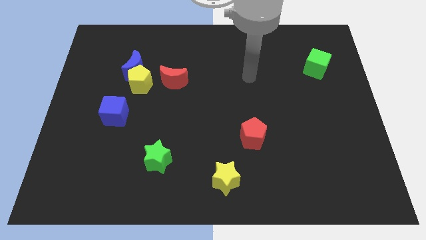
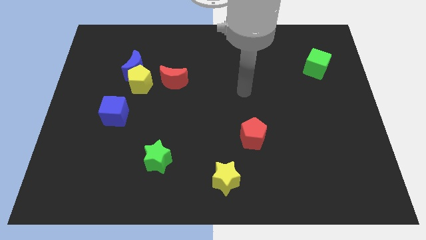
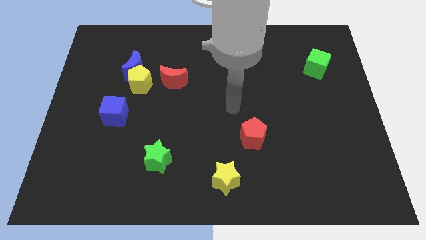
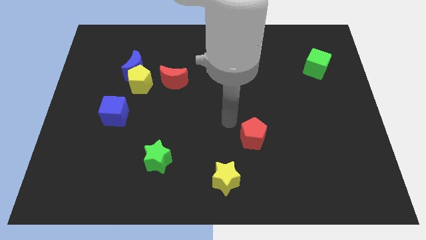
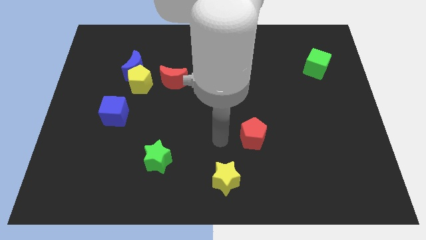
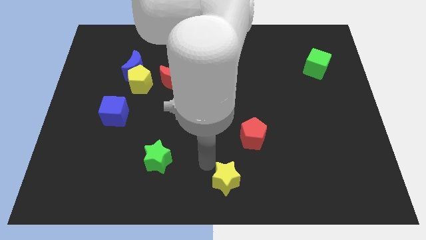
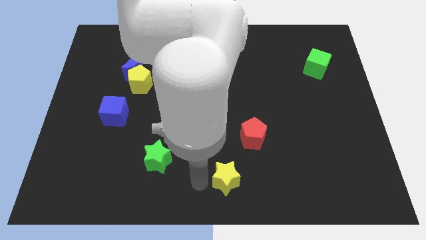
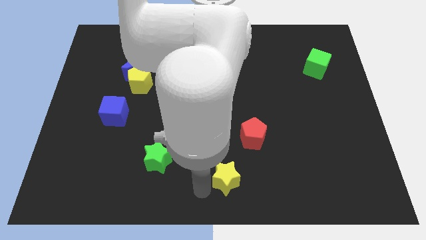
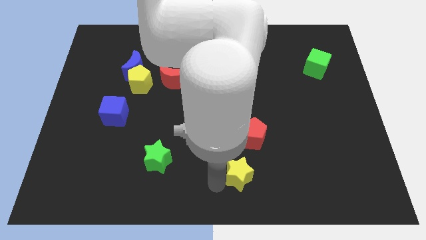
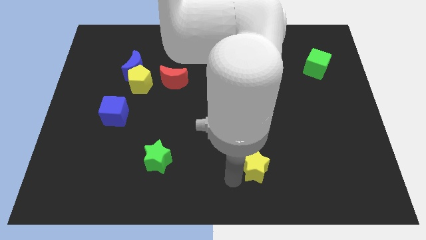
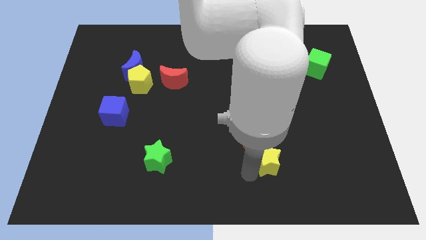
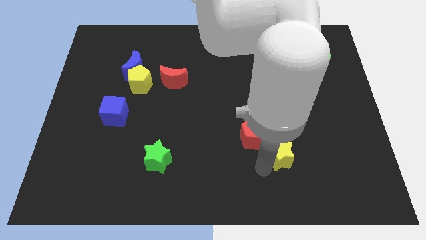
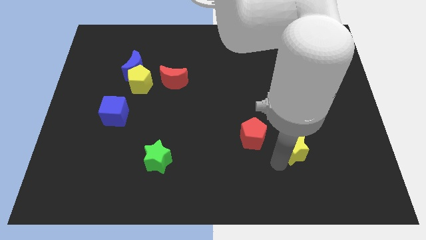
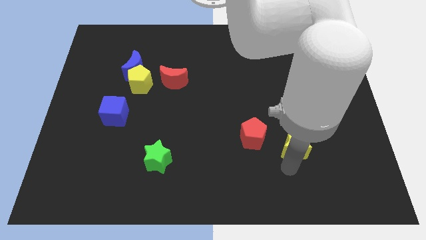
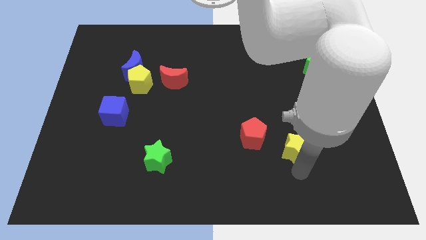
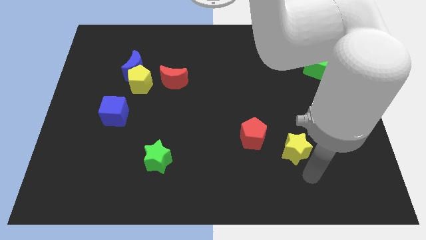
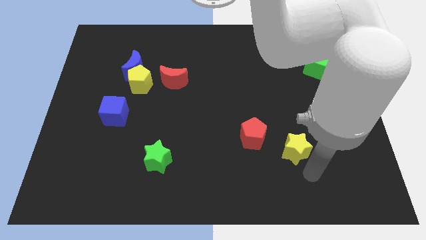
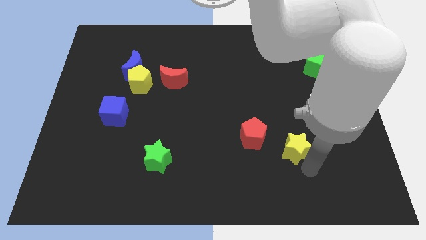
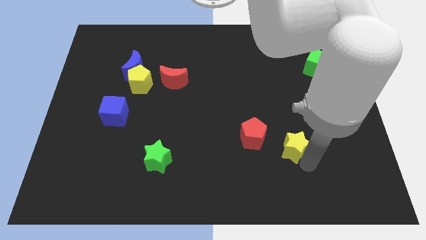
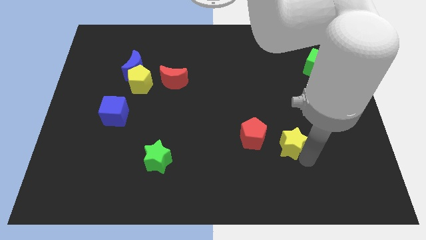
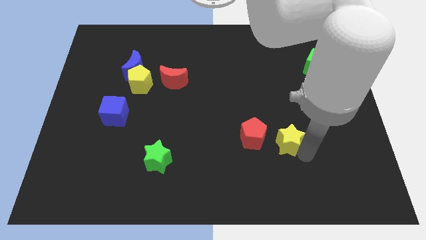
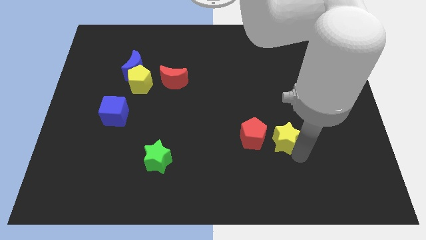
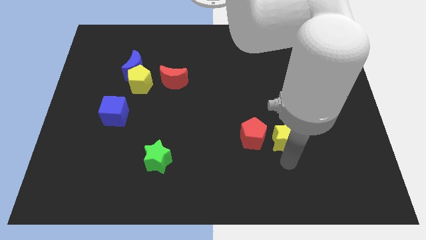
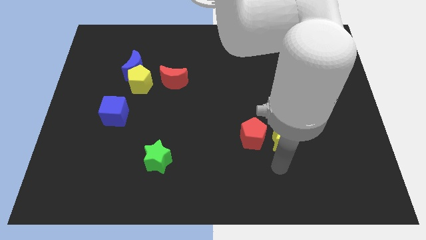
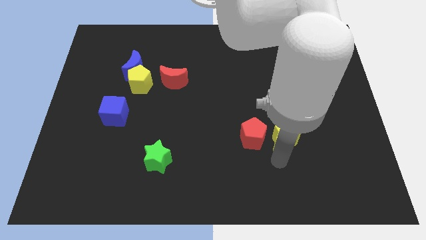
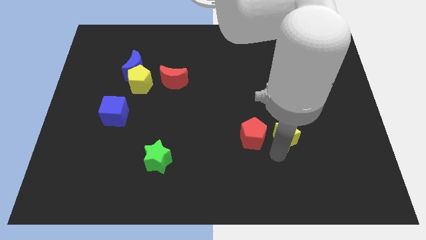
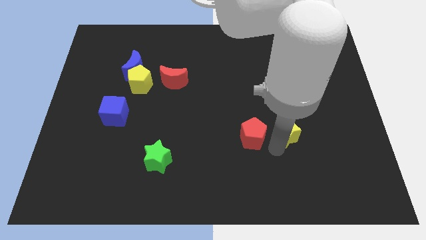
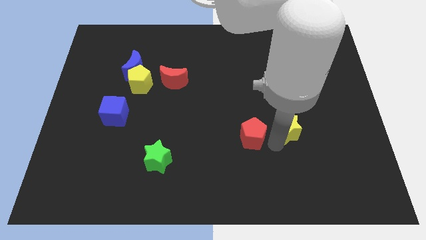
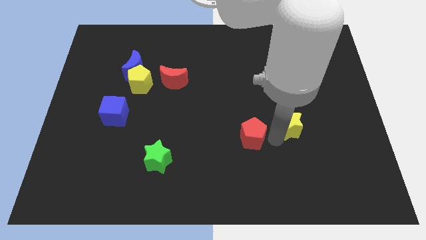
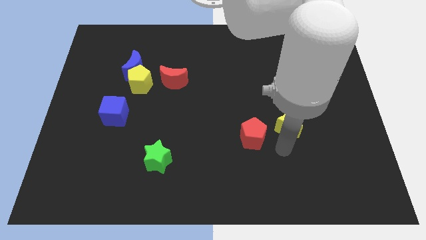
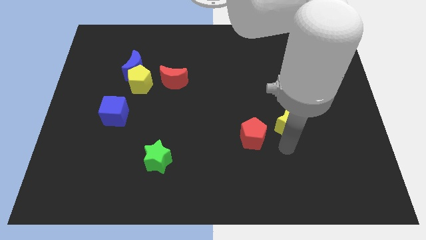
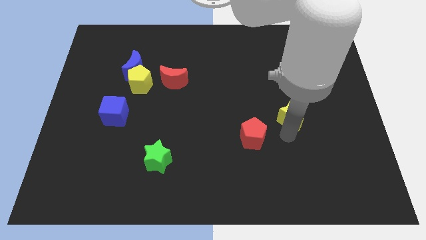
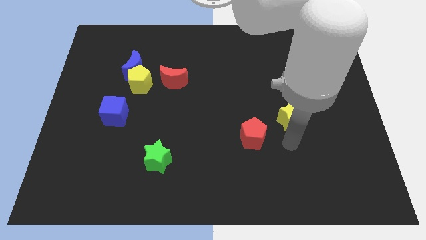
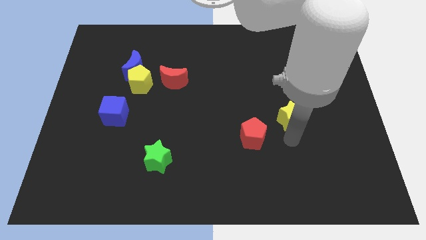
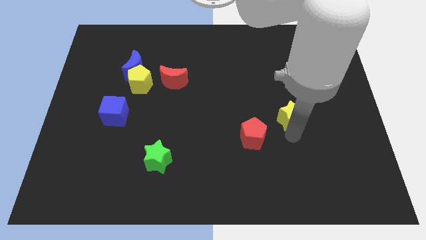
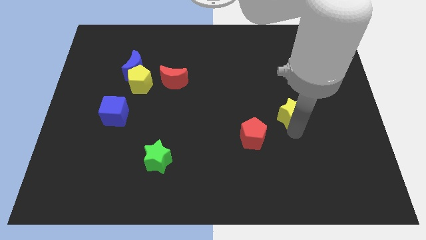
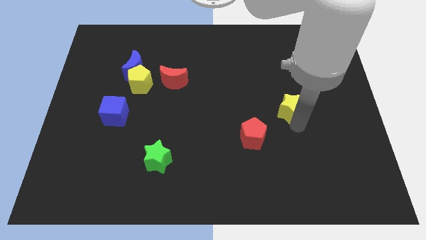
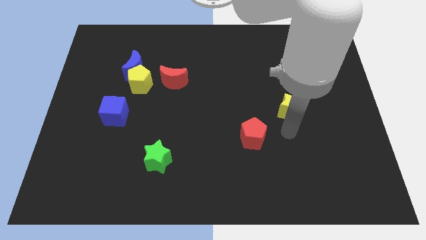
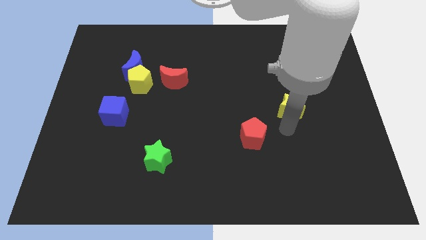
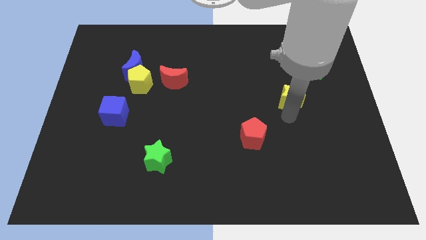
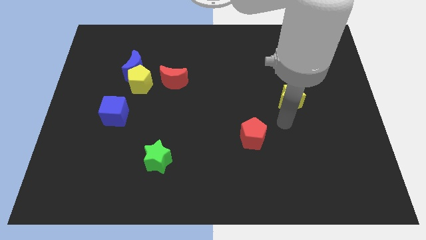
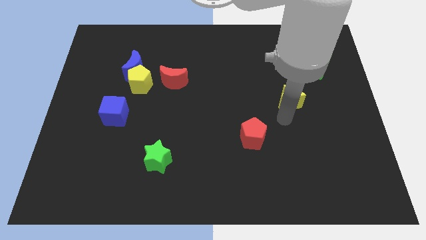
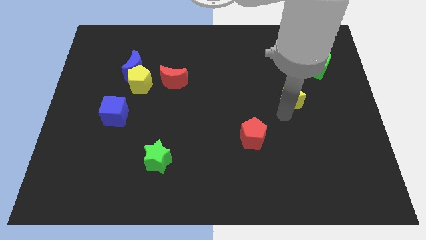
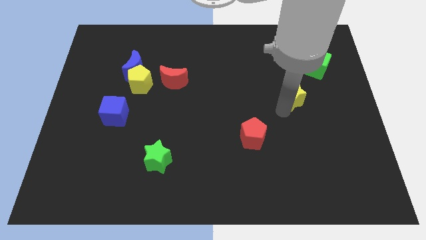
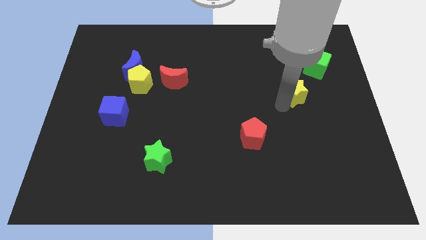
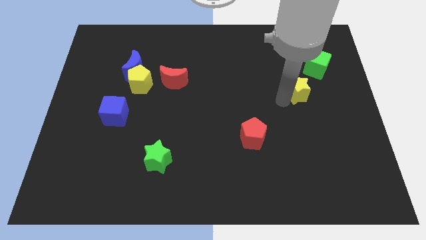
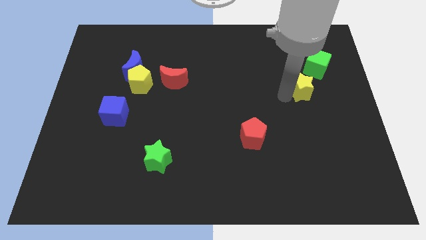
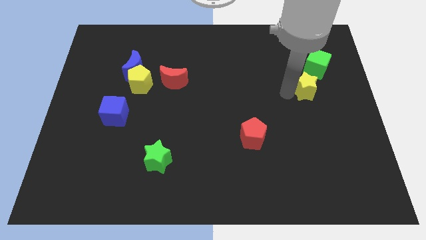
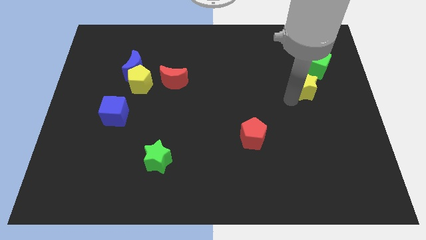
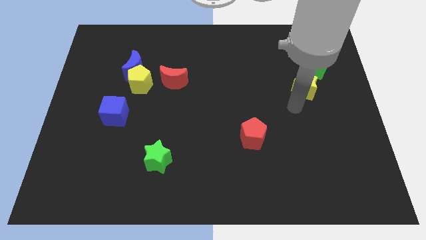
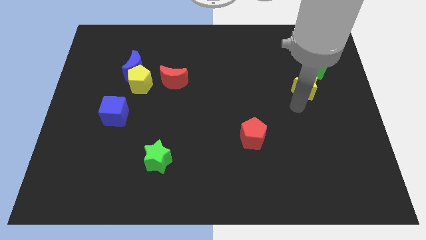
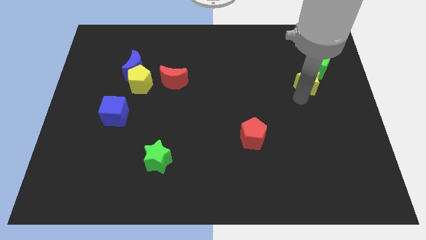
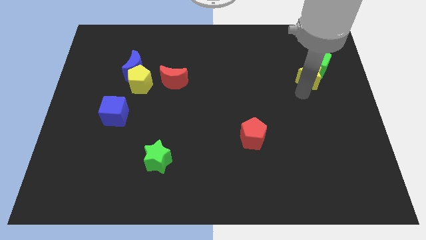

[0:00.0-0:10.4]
move the yellow star close to the green cube

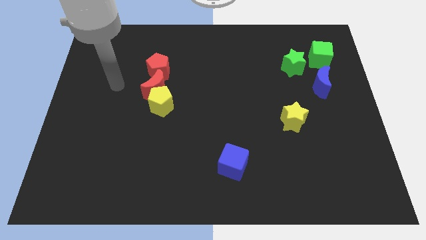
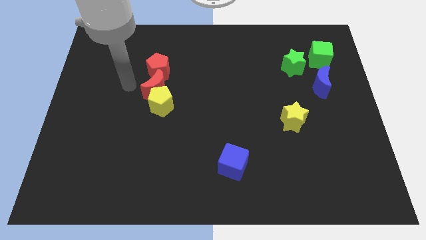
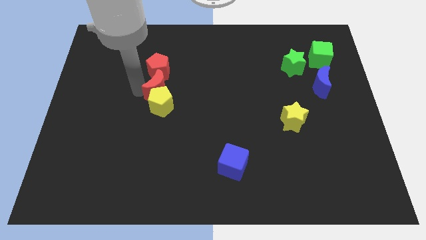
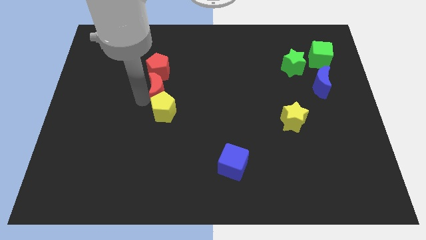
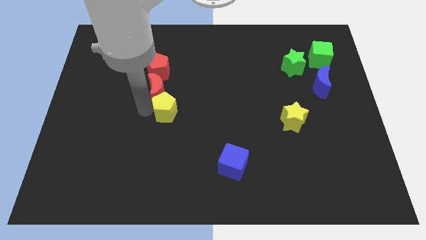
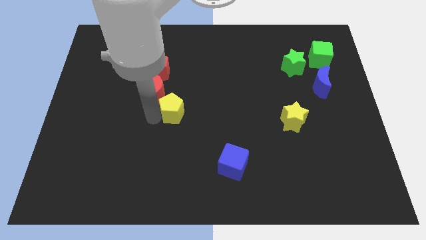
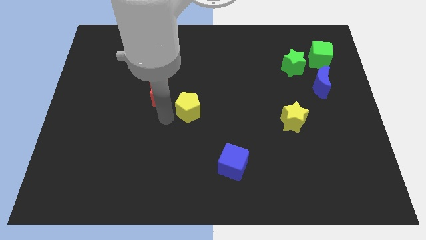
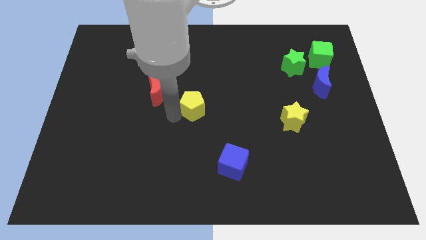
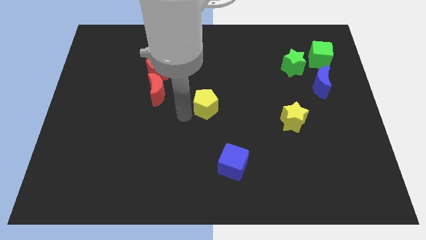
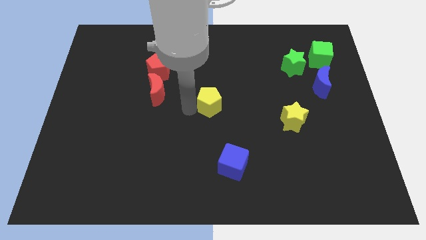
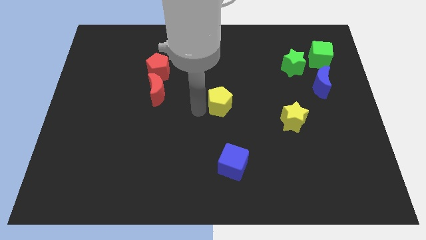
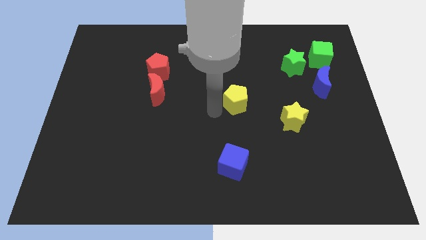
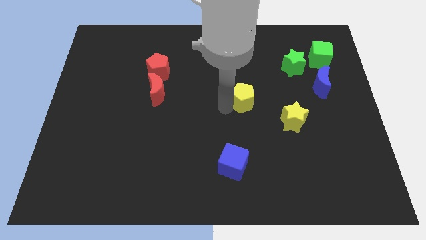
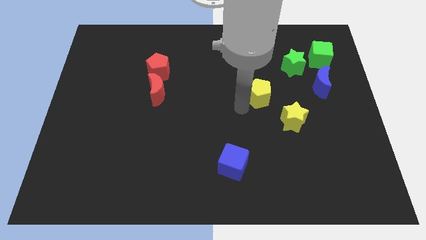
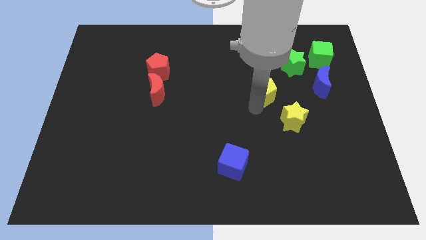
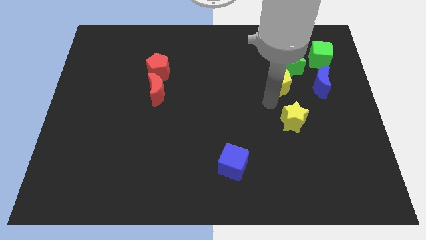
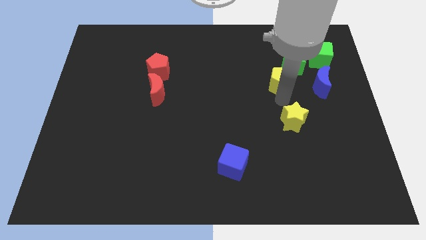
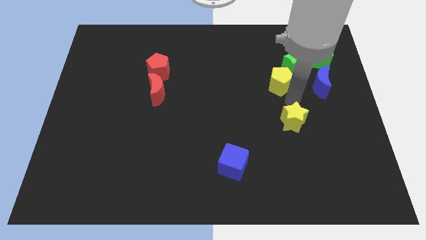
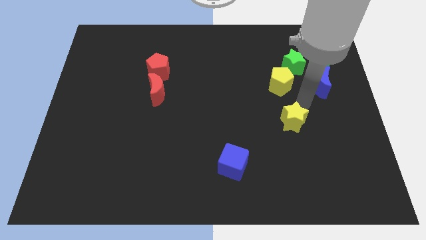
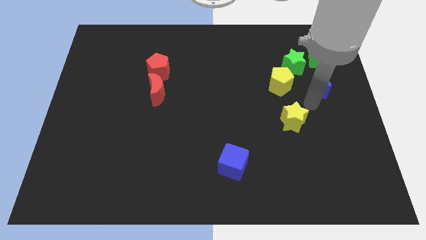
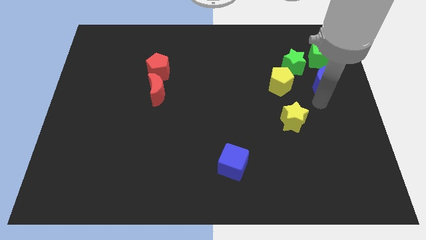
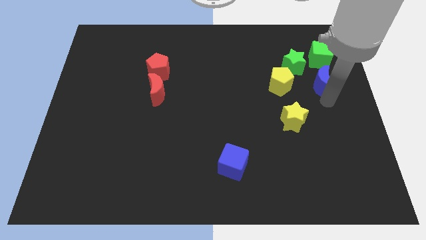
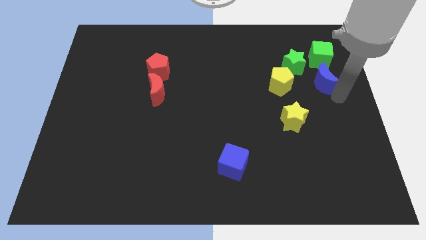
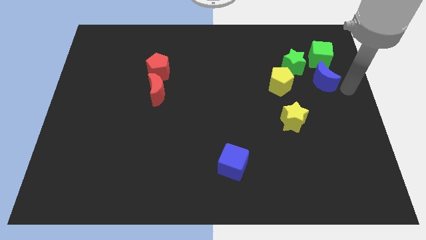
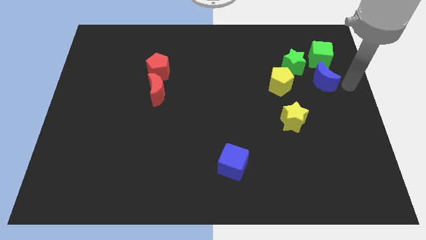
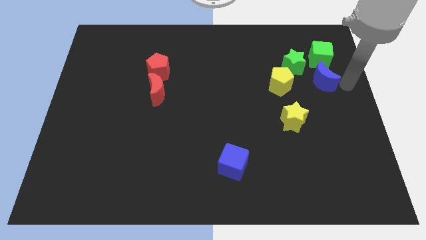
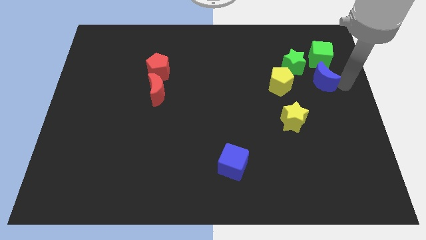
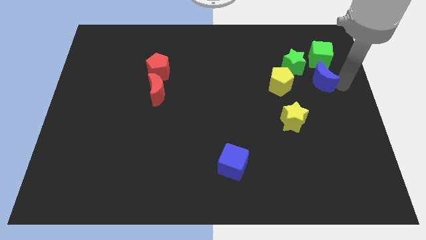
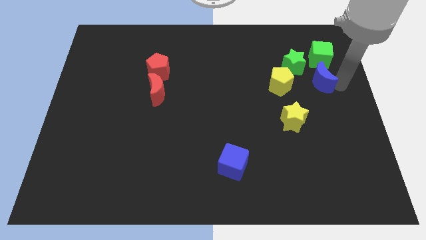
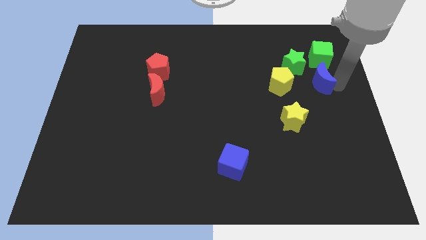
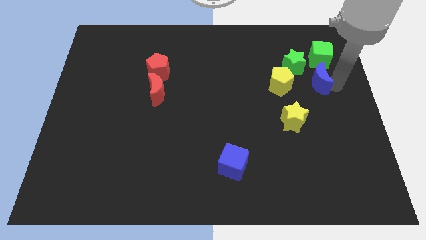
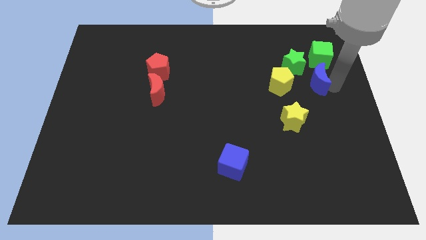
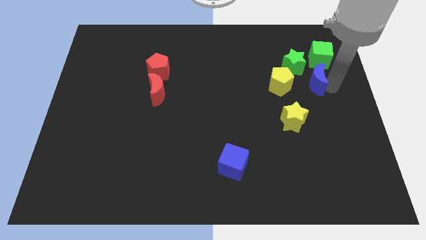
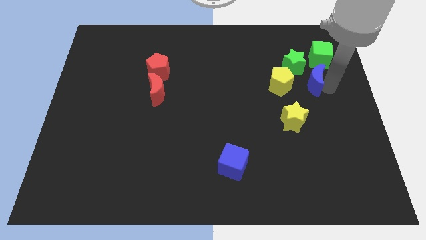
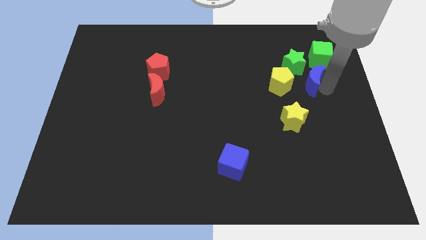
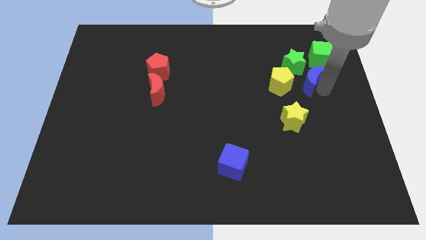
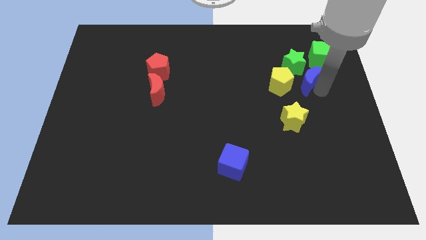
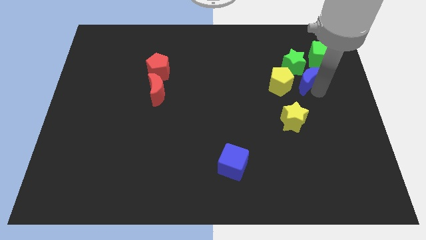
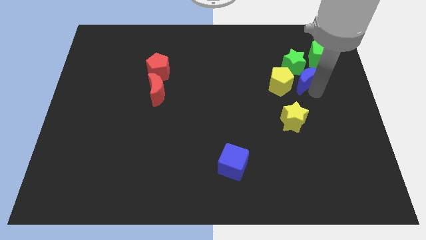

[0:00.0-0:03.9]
slide the blue moon next to the green star
